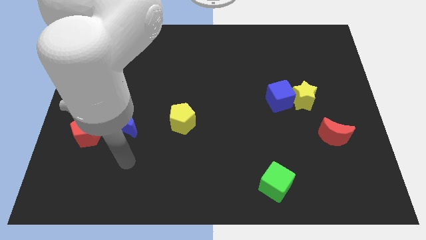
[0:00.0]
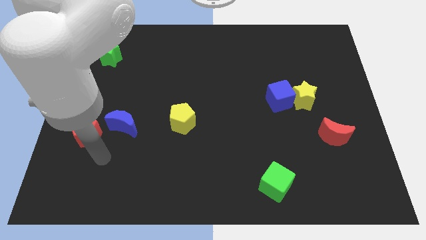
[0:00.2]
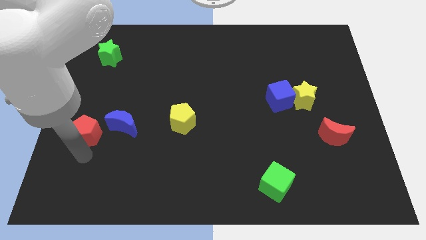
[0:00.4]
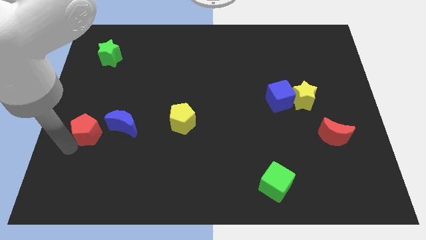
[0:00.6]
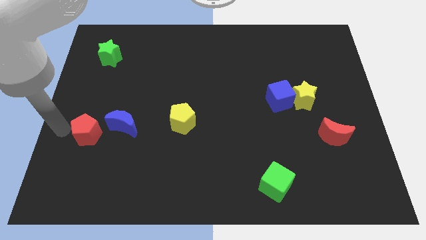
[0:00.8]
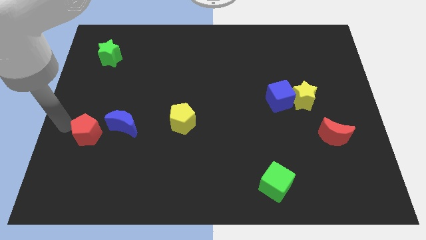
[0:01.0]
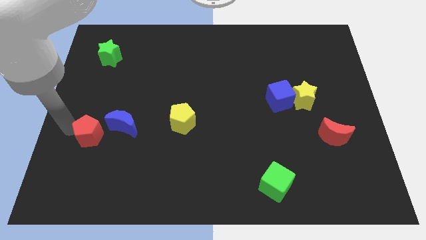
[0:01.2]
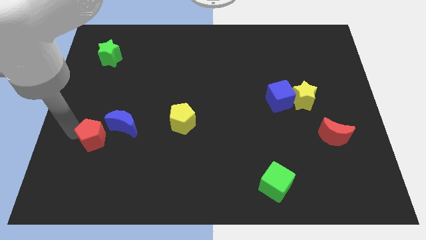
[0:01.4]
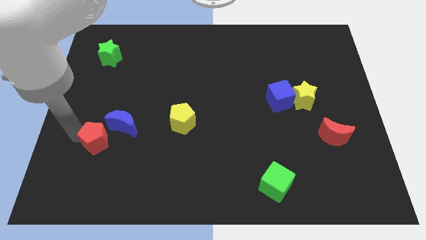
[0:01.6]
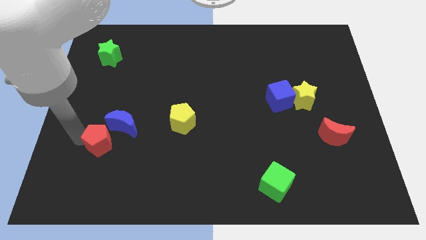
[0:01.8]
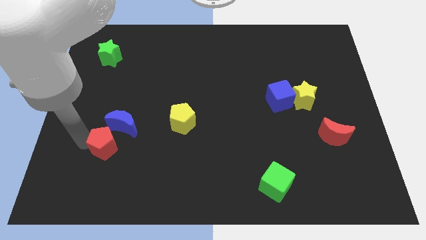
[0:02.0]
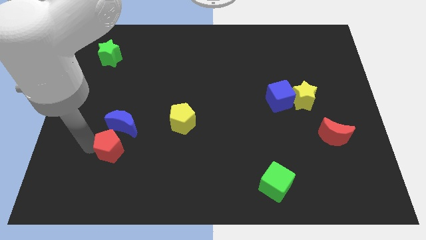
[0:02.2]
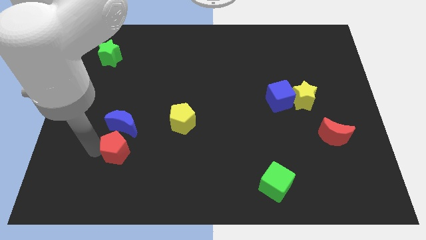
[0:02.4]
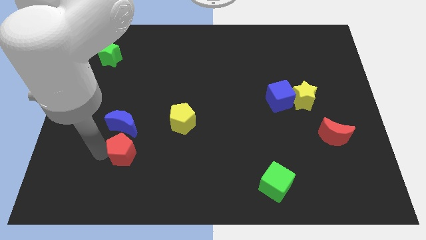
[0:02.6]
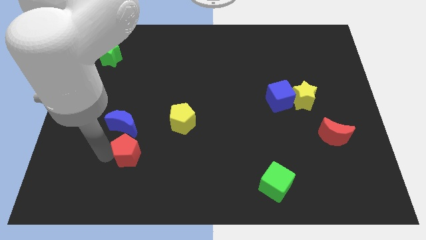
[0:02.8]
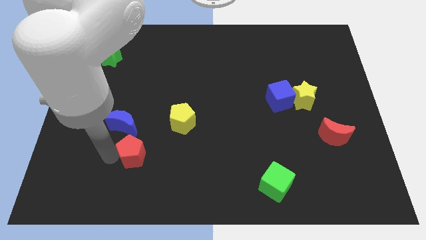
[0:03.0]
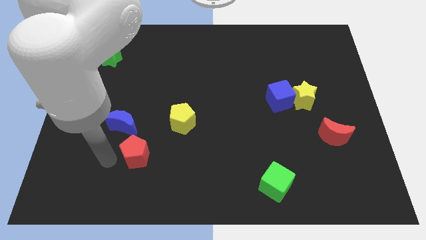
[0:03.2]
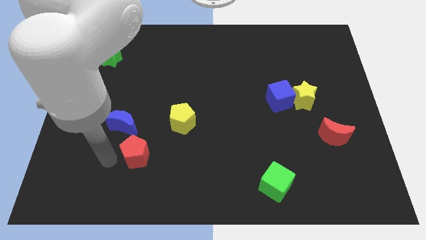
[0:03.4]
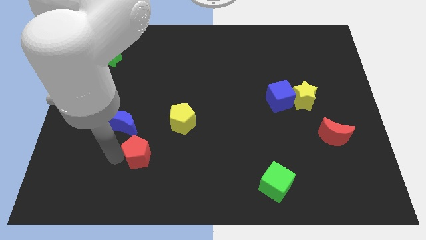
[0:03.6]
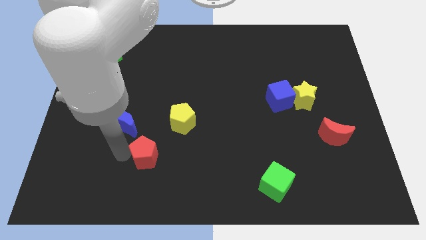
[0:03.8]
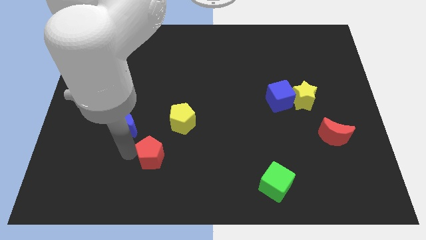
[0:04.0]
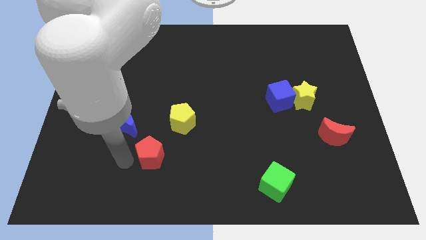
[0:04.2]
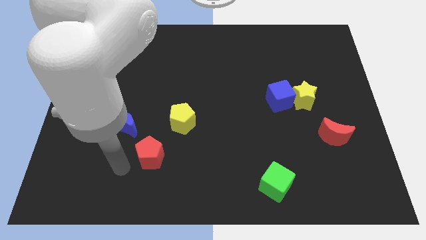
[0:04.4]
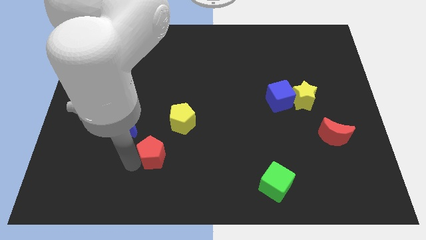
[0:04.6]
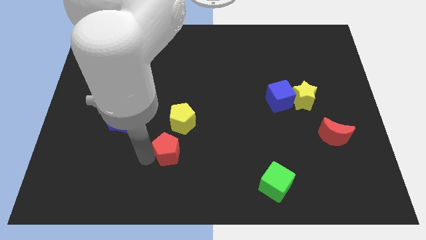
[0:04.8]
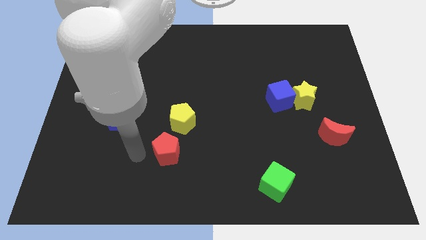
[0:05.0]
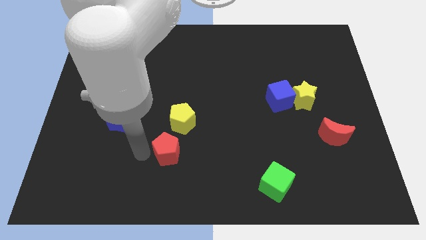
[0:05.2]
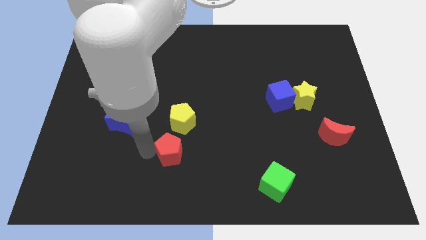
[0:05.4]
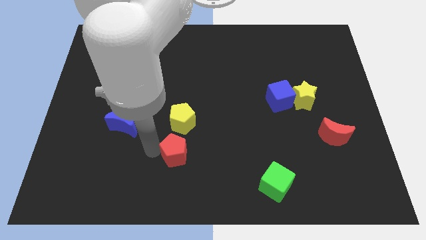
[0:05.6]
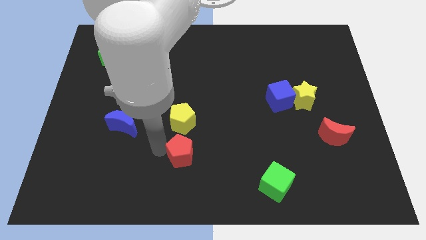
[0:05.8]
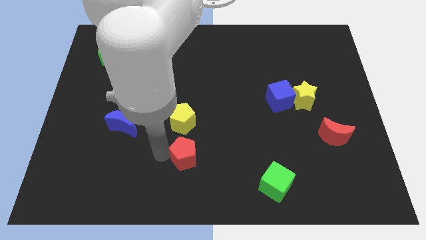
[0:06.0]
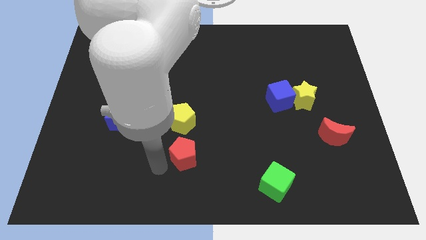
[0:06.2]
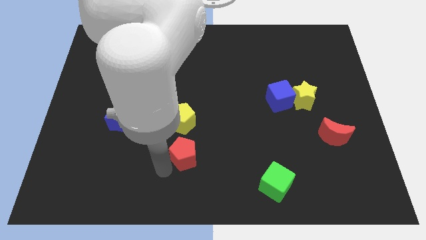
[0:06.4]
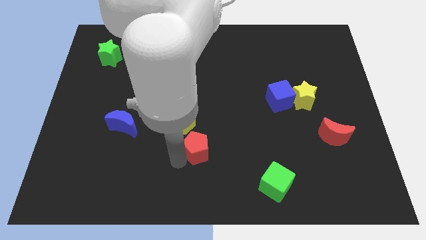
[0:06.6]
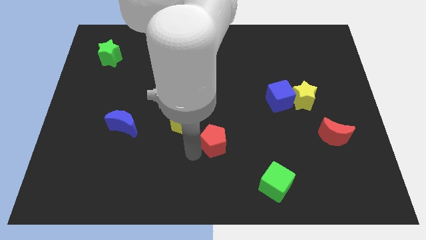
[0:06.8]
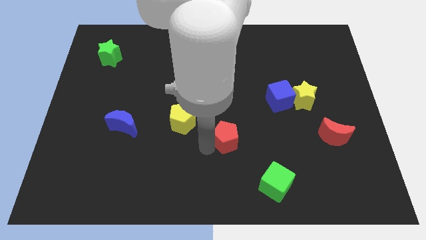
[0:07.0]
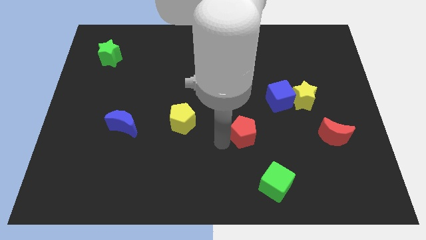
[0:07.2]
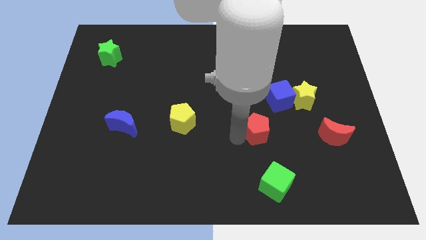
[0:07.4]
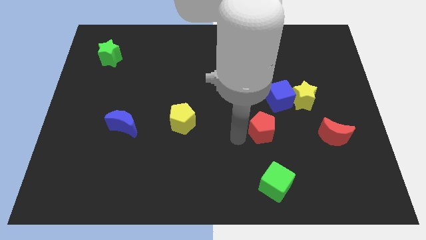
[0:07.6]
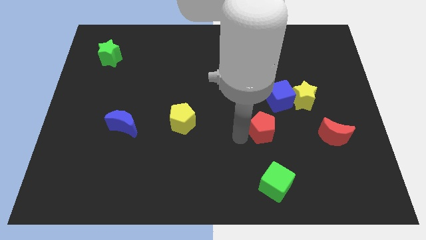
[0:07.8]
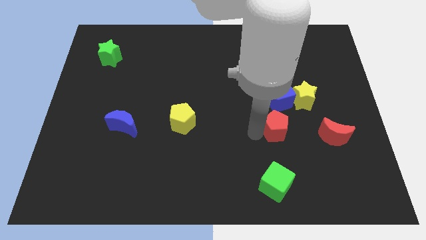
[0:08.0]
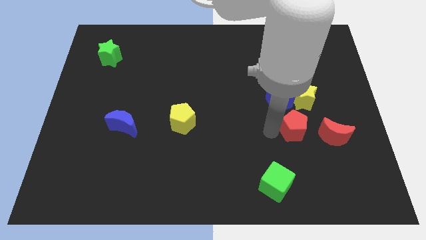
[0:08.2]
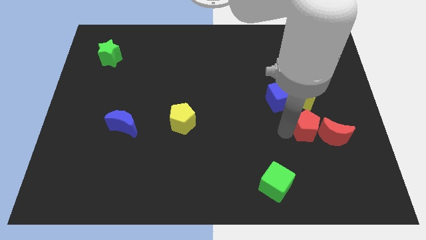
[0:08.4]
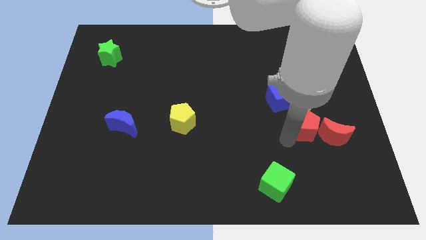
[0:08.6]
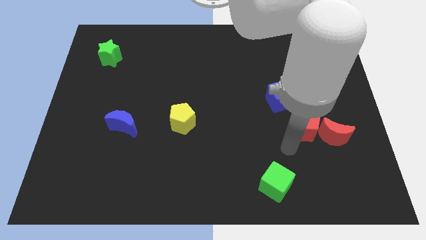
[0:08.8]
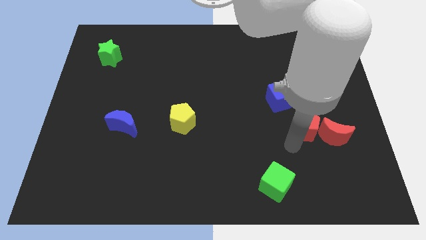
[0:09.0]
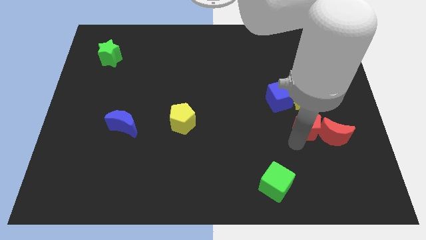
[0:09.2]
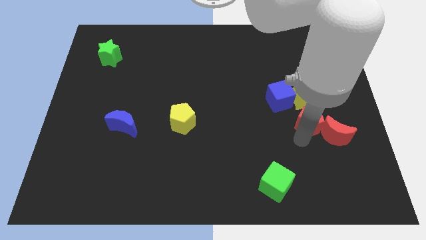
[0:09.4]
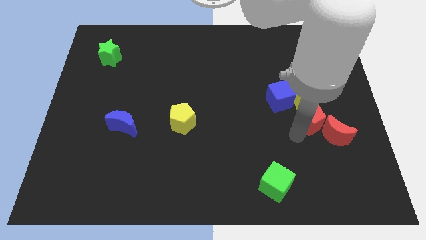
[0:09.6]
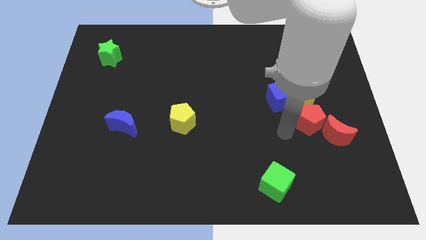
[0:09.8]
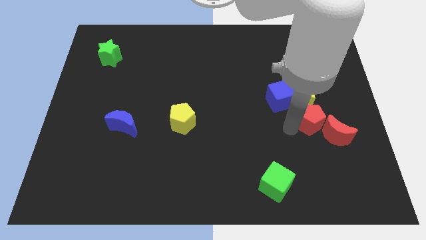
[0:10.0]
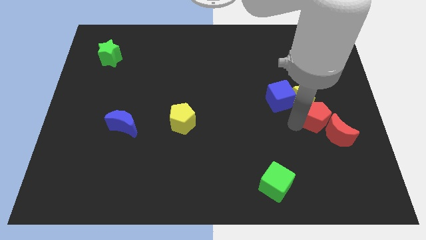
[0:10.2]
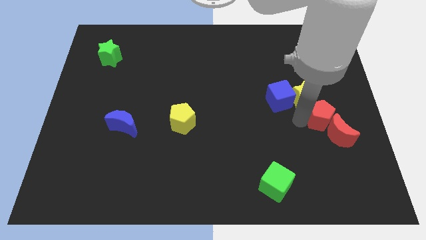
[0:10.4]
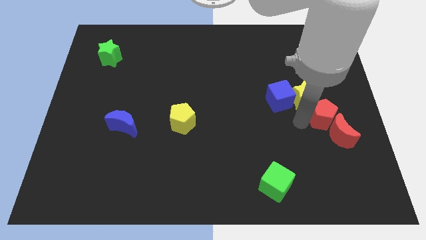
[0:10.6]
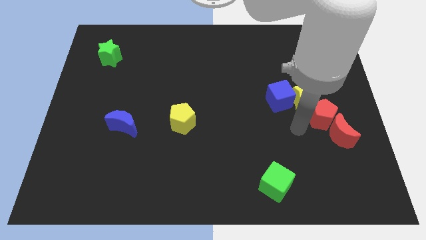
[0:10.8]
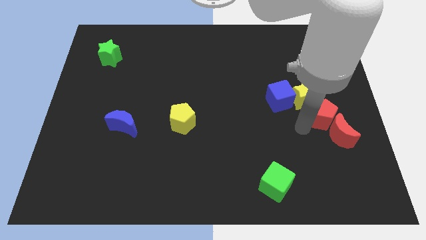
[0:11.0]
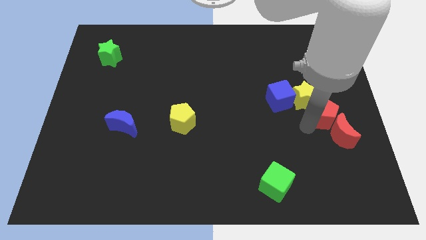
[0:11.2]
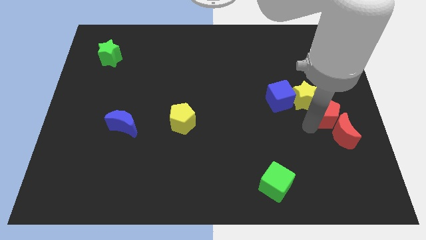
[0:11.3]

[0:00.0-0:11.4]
put the red pentagon to the right side of the board
